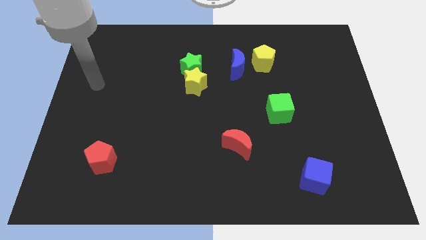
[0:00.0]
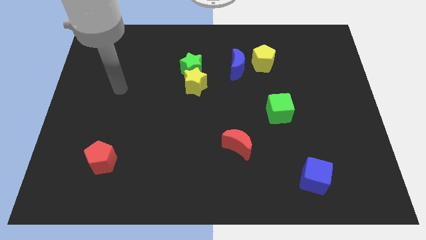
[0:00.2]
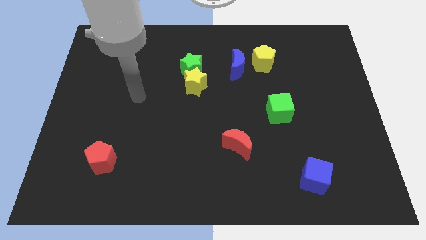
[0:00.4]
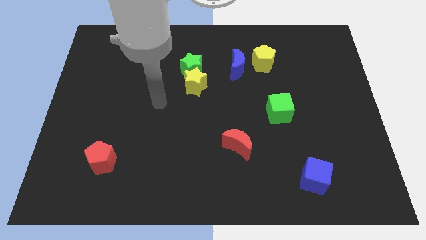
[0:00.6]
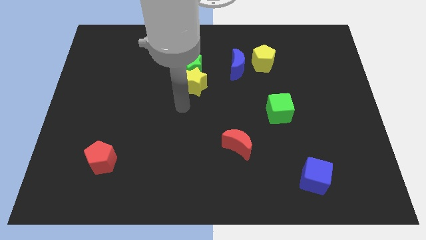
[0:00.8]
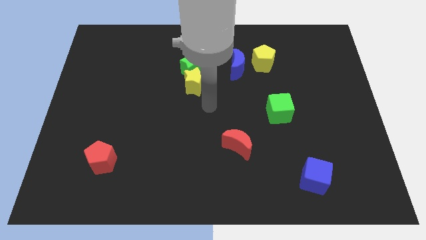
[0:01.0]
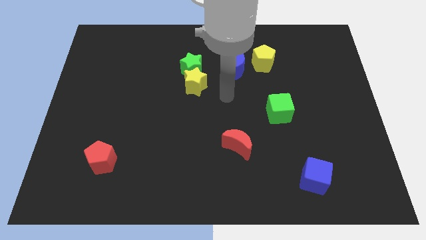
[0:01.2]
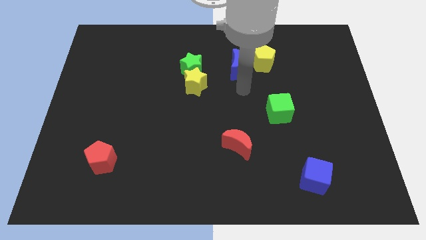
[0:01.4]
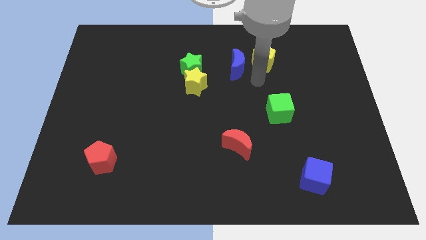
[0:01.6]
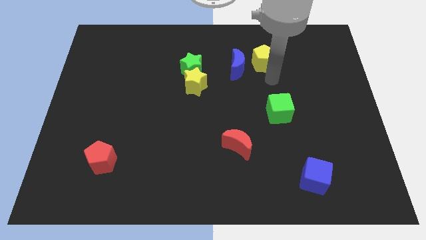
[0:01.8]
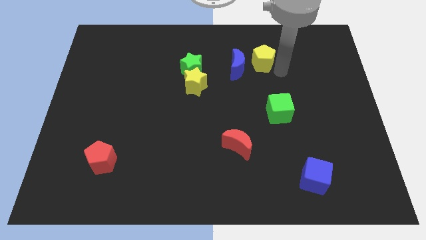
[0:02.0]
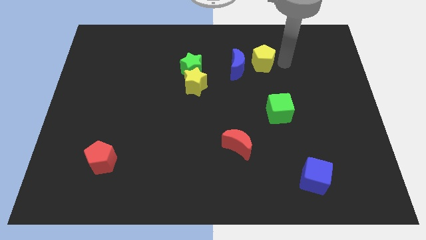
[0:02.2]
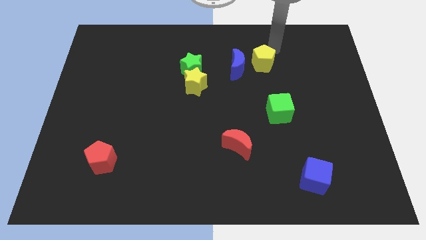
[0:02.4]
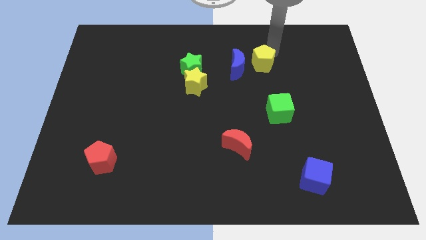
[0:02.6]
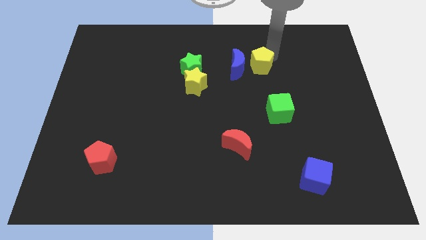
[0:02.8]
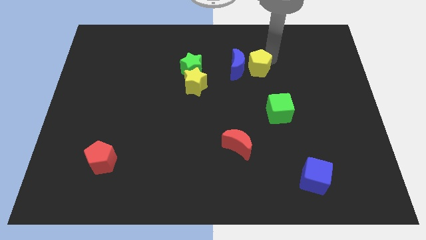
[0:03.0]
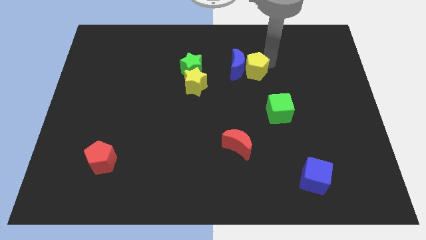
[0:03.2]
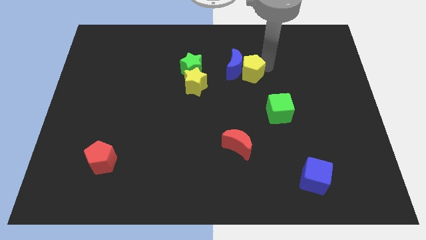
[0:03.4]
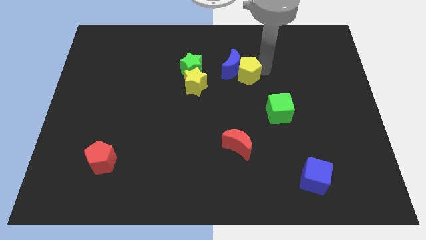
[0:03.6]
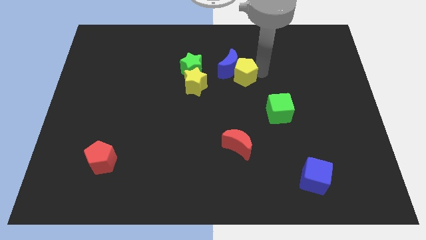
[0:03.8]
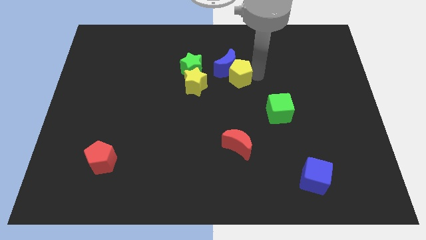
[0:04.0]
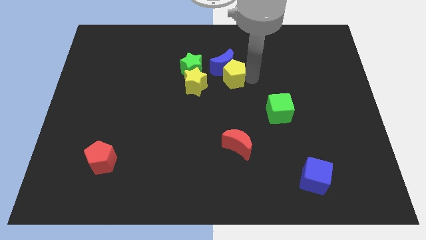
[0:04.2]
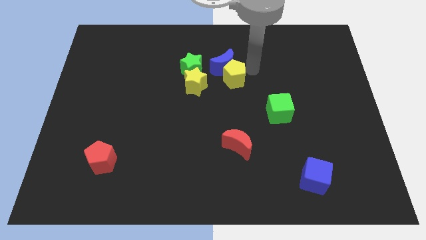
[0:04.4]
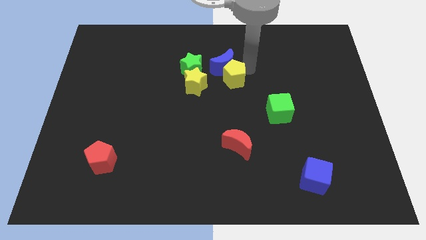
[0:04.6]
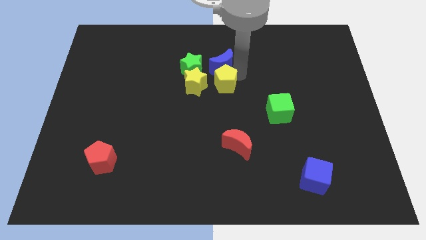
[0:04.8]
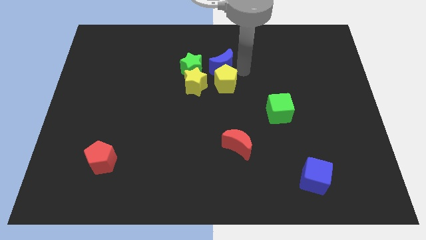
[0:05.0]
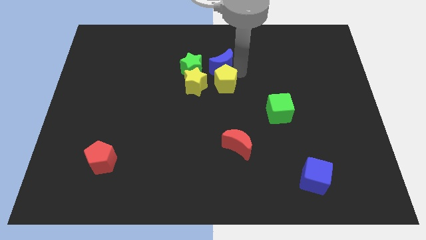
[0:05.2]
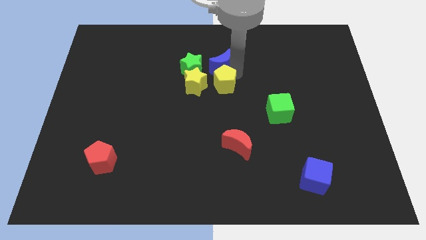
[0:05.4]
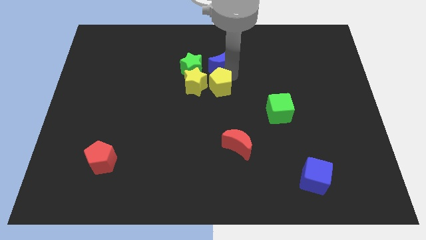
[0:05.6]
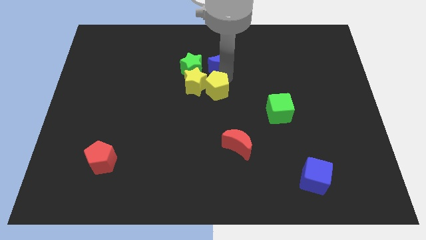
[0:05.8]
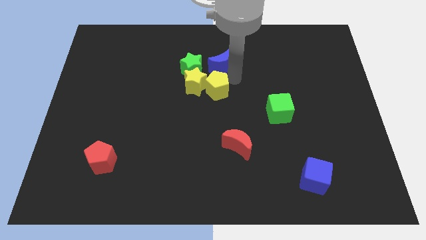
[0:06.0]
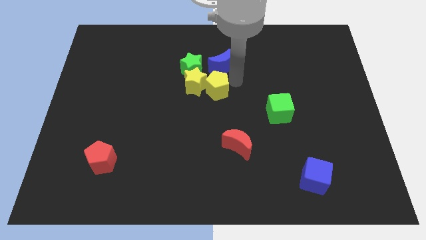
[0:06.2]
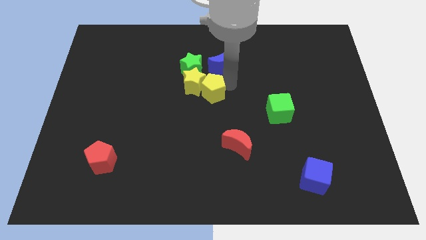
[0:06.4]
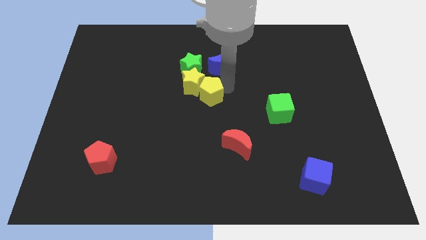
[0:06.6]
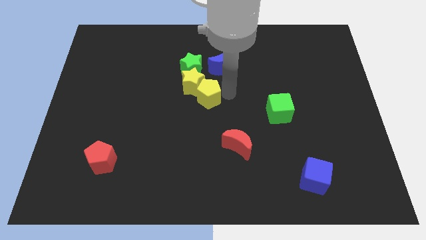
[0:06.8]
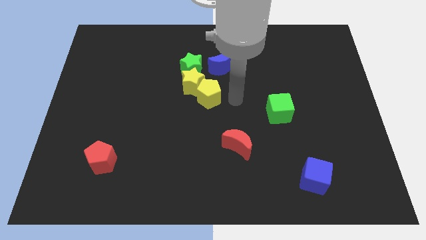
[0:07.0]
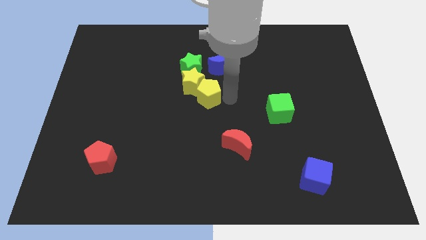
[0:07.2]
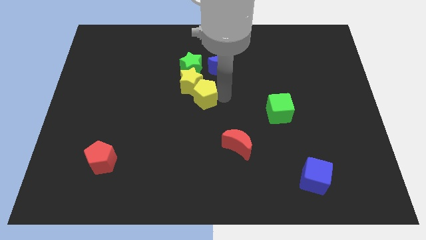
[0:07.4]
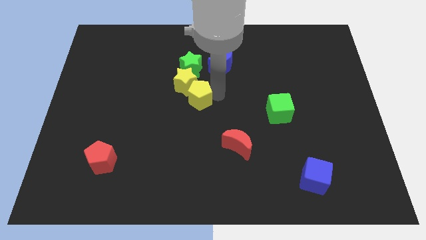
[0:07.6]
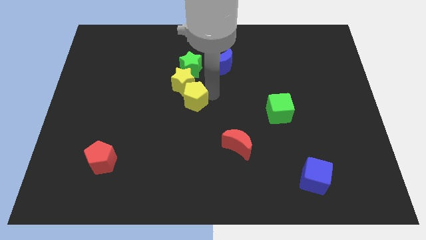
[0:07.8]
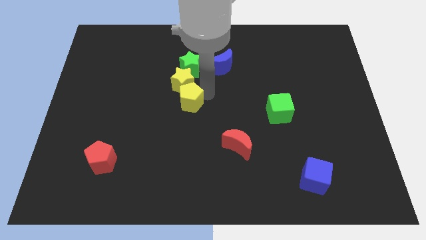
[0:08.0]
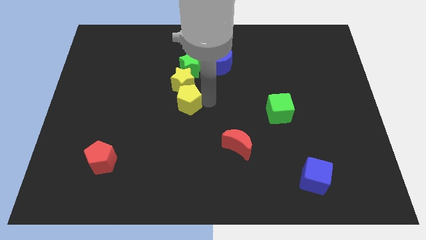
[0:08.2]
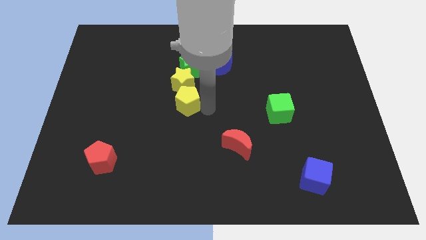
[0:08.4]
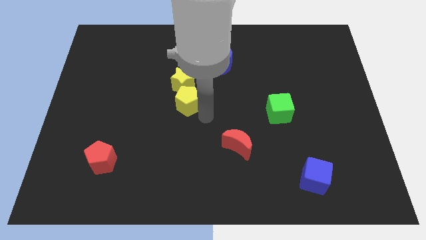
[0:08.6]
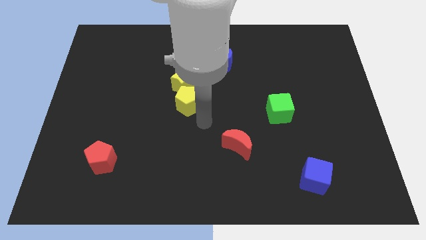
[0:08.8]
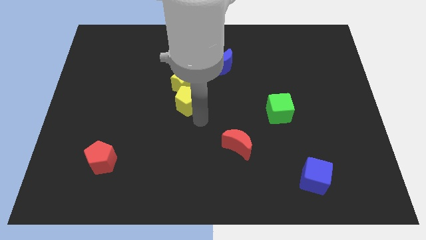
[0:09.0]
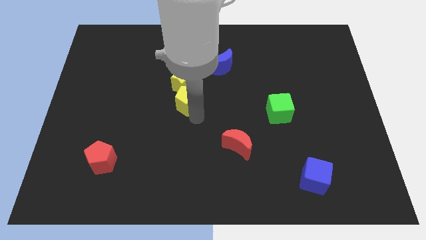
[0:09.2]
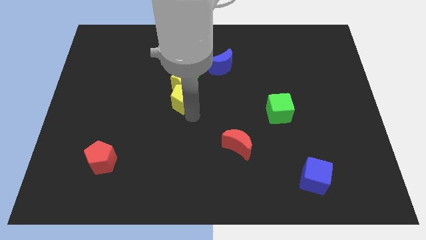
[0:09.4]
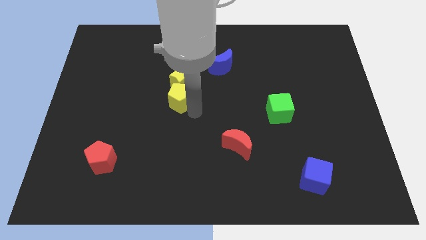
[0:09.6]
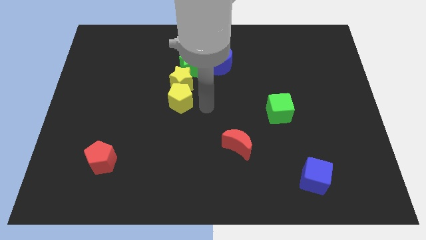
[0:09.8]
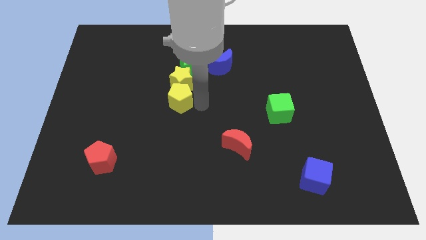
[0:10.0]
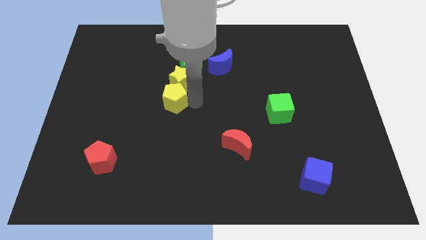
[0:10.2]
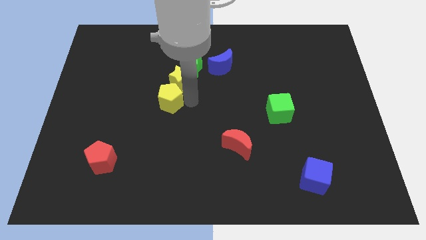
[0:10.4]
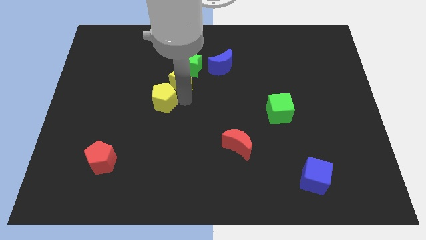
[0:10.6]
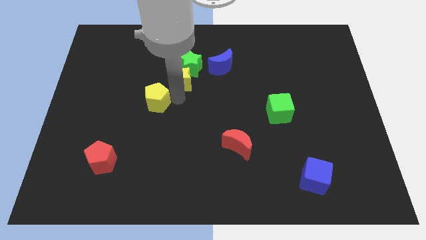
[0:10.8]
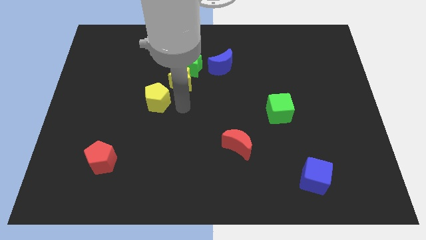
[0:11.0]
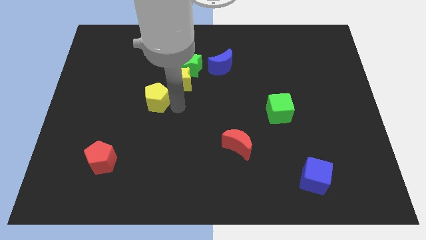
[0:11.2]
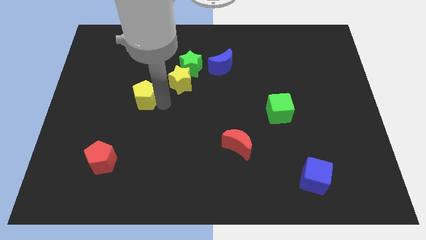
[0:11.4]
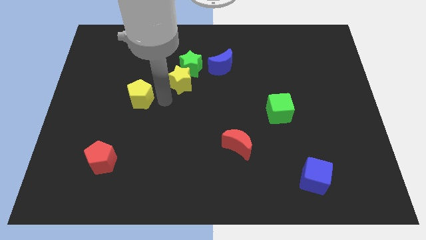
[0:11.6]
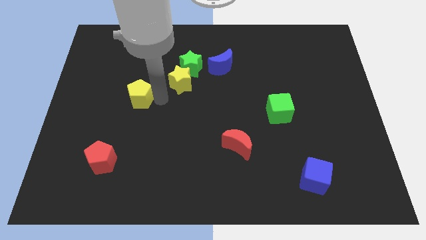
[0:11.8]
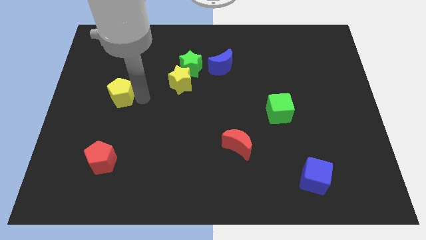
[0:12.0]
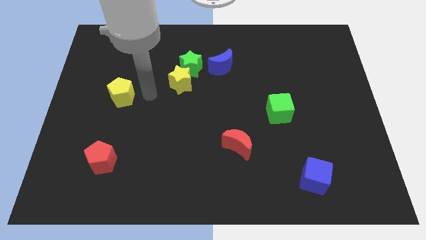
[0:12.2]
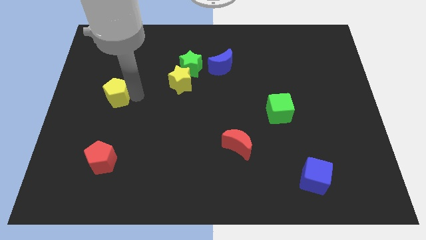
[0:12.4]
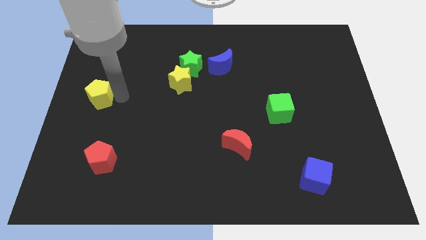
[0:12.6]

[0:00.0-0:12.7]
push the yellow pentagon to the left side of the board

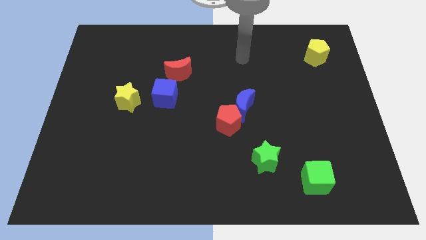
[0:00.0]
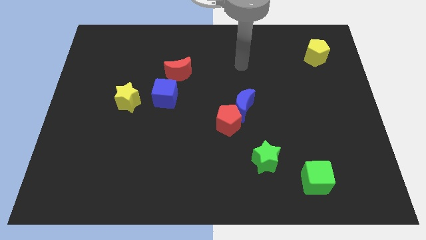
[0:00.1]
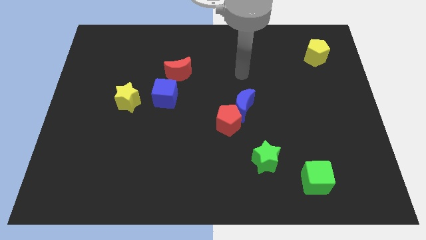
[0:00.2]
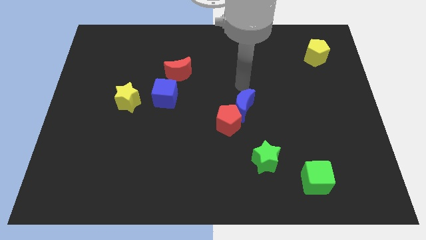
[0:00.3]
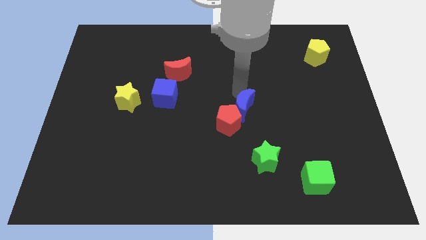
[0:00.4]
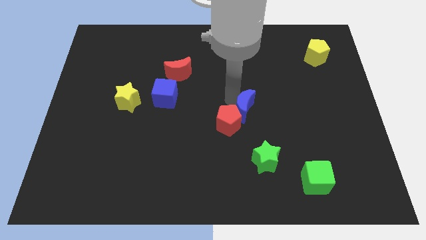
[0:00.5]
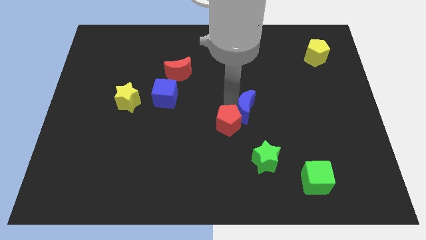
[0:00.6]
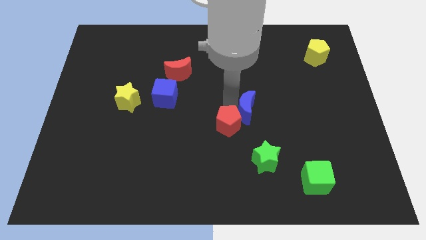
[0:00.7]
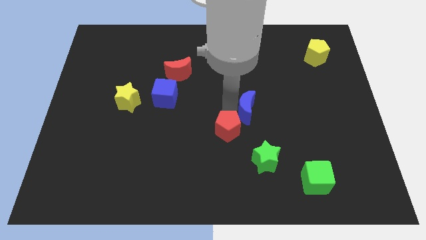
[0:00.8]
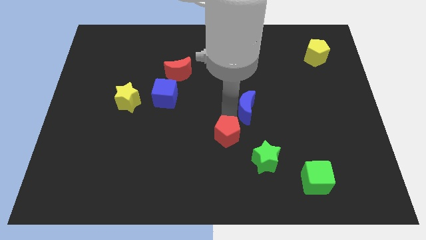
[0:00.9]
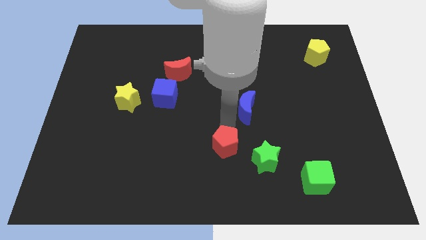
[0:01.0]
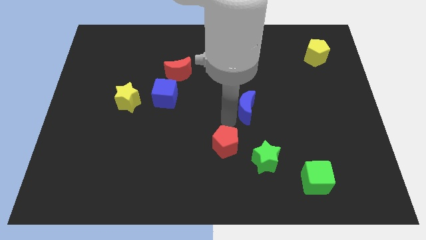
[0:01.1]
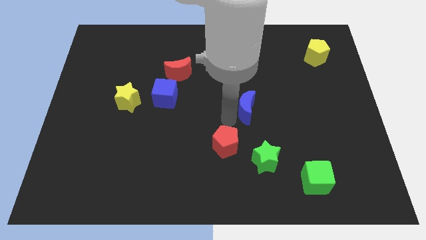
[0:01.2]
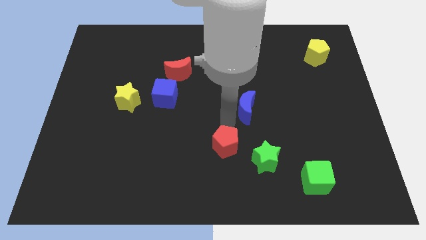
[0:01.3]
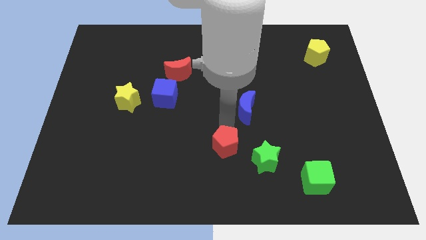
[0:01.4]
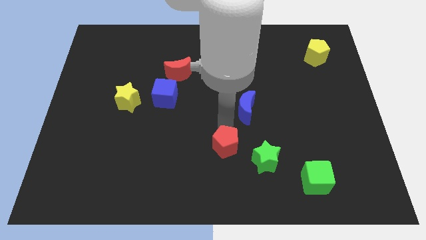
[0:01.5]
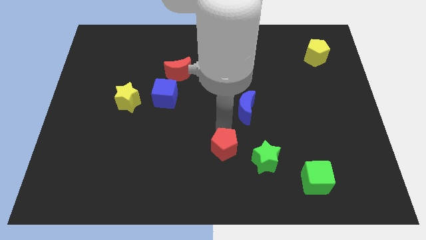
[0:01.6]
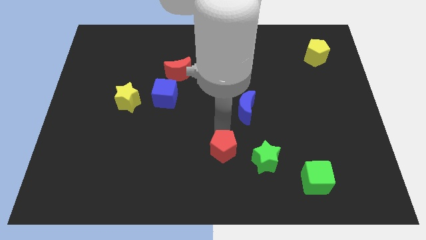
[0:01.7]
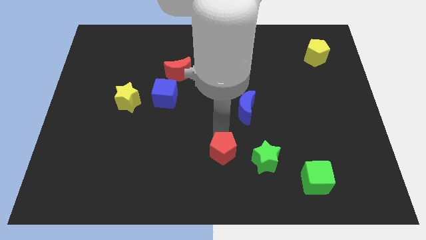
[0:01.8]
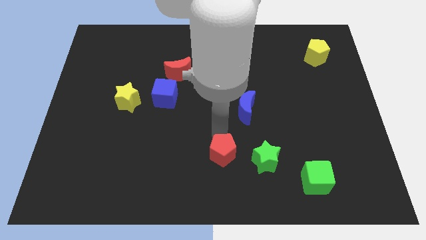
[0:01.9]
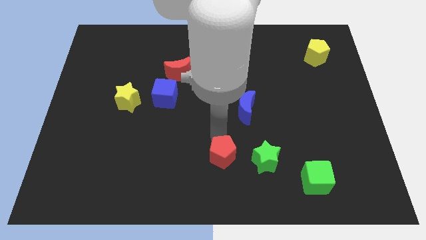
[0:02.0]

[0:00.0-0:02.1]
put the red pentagon to the bottom
